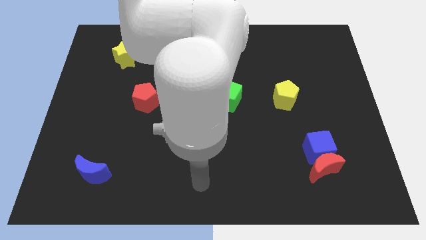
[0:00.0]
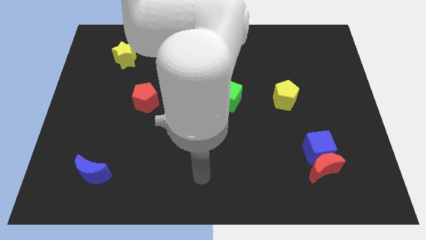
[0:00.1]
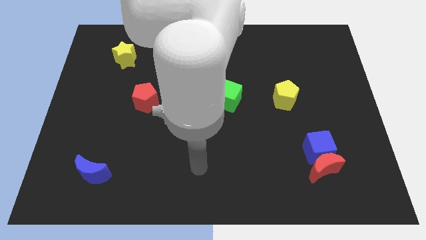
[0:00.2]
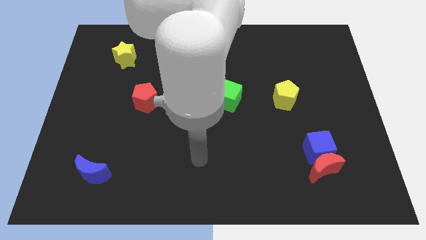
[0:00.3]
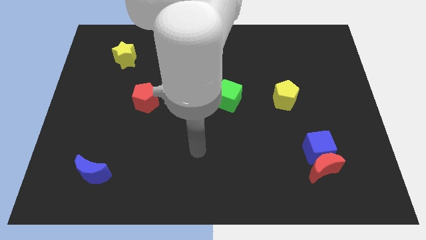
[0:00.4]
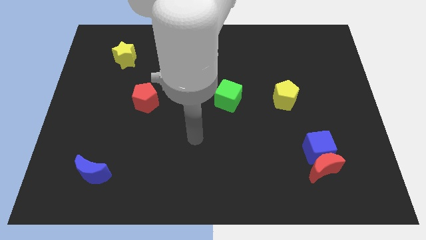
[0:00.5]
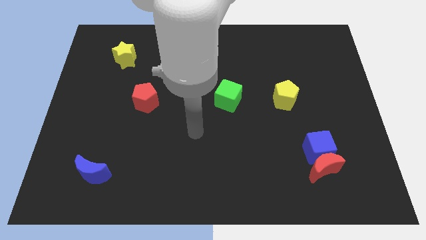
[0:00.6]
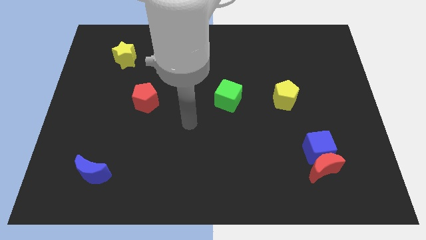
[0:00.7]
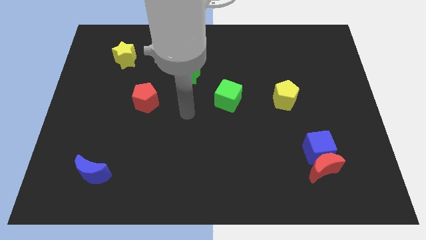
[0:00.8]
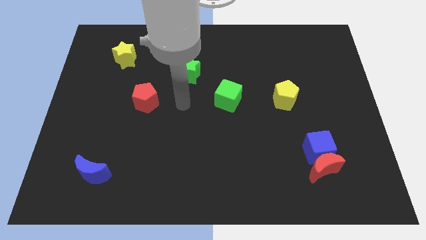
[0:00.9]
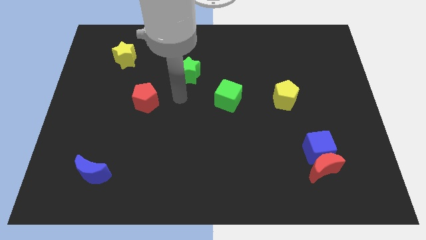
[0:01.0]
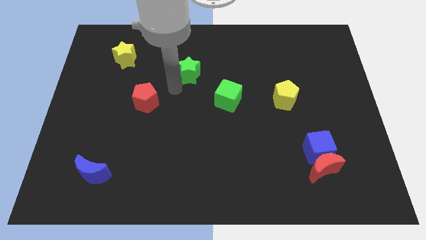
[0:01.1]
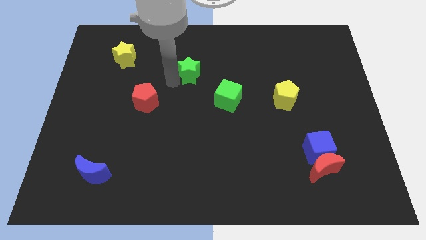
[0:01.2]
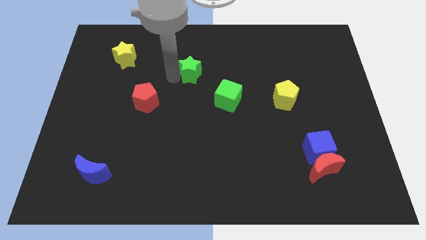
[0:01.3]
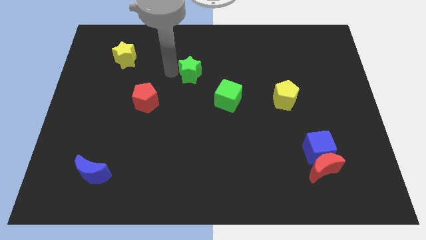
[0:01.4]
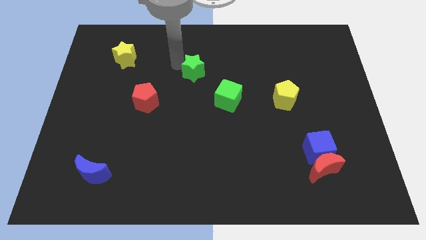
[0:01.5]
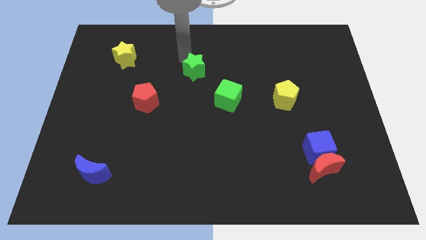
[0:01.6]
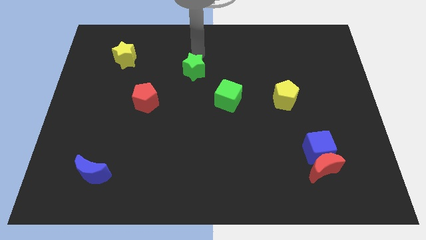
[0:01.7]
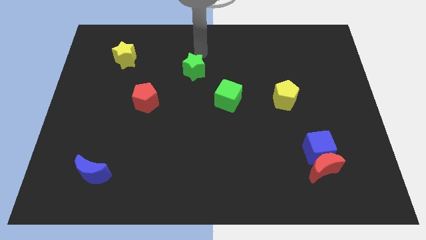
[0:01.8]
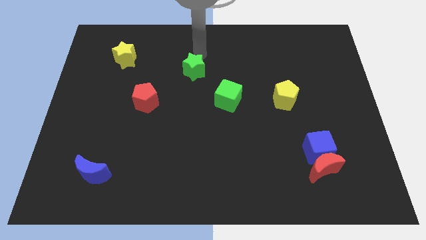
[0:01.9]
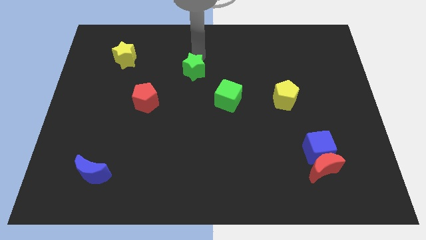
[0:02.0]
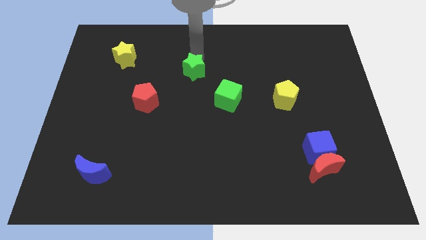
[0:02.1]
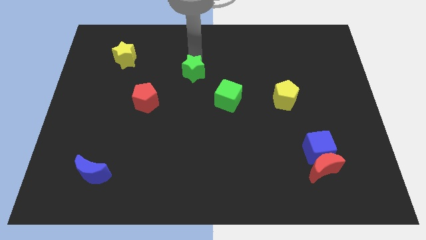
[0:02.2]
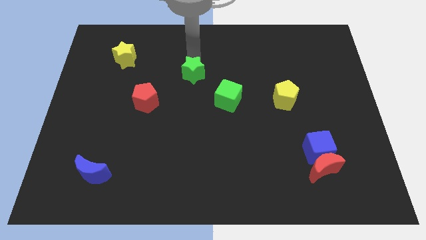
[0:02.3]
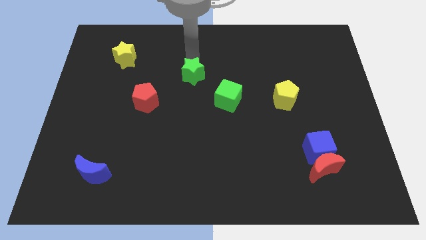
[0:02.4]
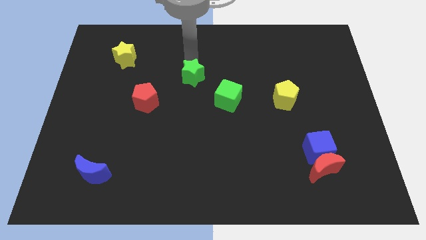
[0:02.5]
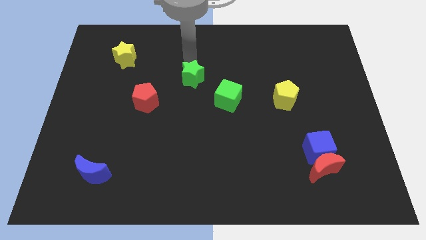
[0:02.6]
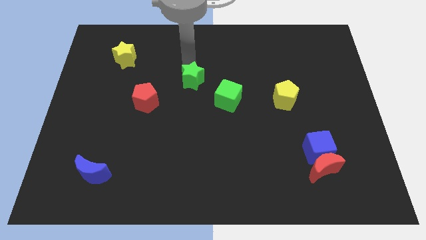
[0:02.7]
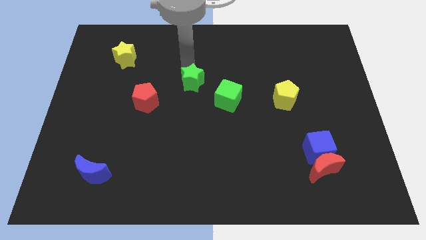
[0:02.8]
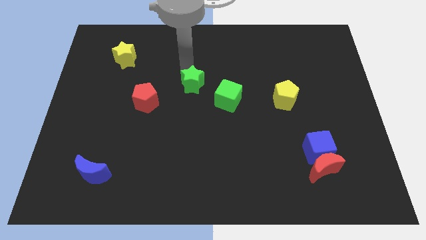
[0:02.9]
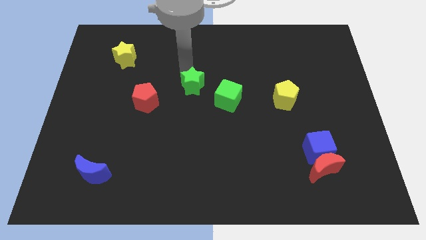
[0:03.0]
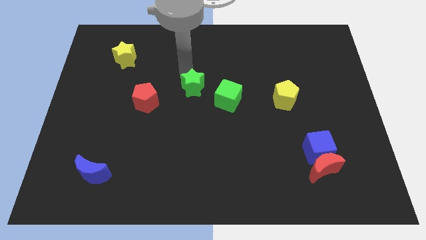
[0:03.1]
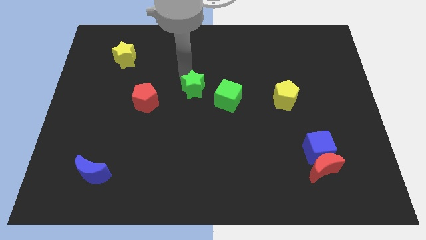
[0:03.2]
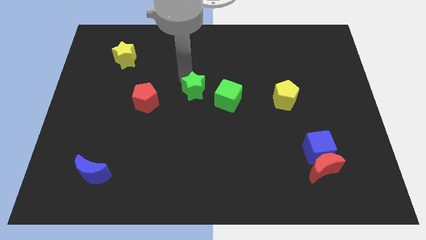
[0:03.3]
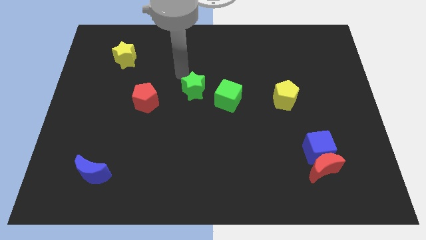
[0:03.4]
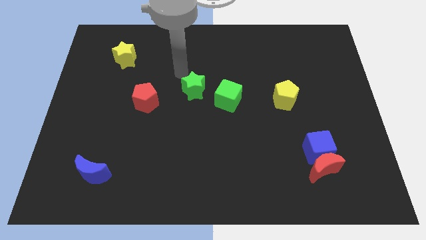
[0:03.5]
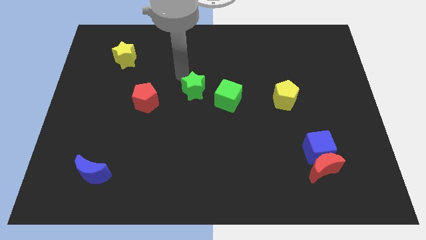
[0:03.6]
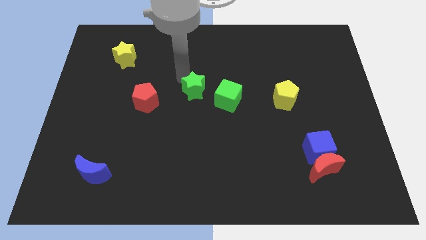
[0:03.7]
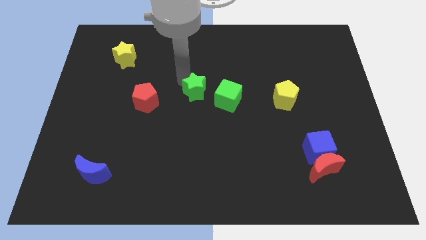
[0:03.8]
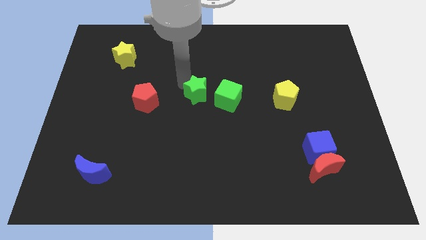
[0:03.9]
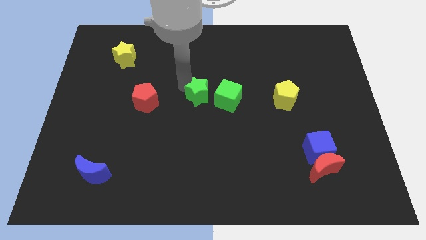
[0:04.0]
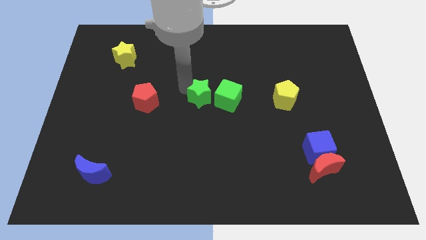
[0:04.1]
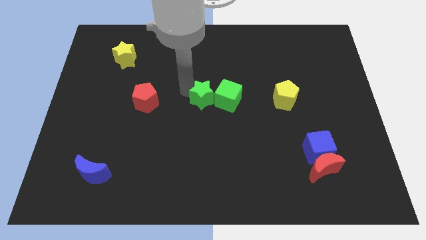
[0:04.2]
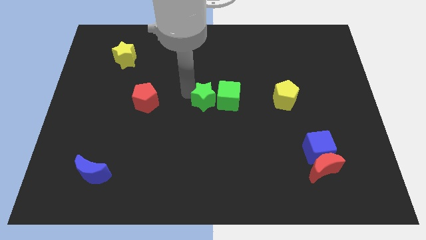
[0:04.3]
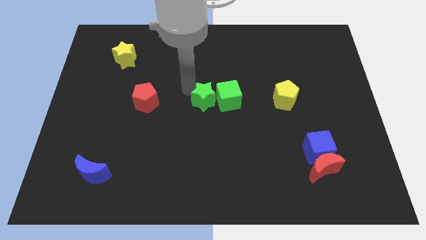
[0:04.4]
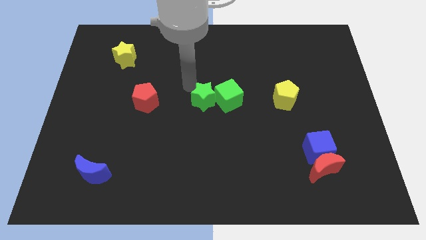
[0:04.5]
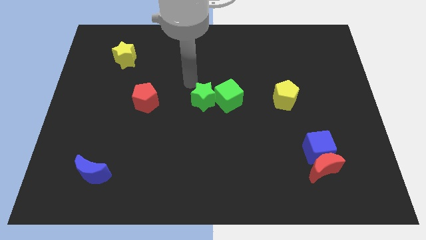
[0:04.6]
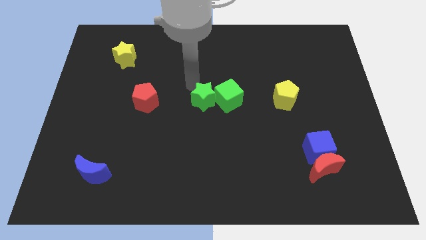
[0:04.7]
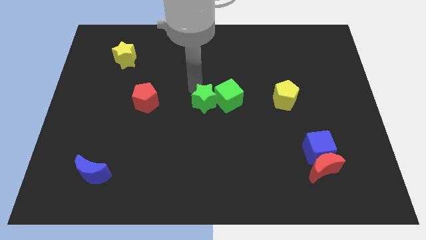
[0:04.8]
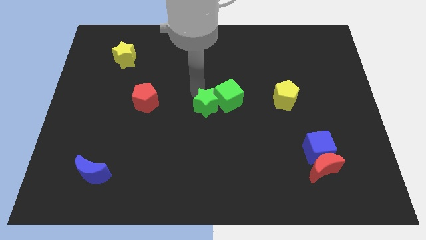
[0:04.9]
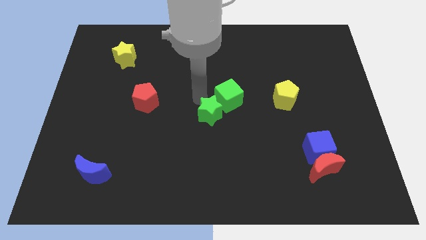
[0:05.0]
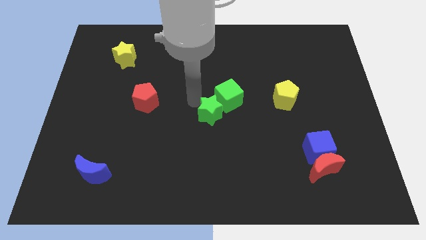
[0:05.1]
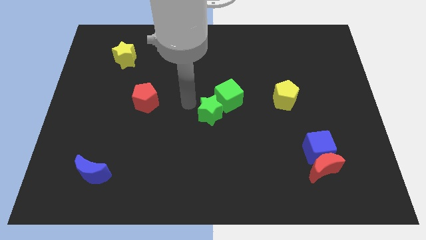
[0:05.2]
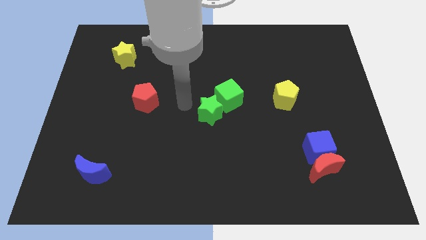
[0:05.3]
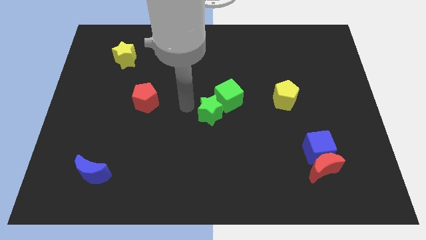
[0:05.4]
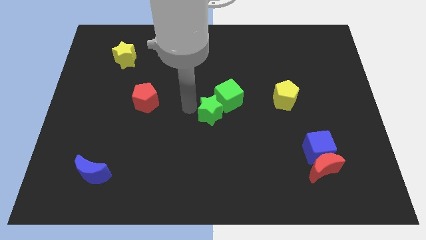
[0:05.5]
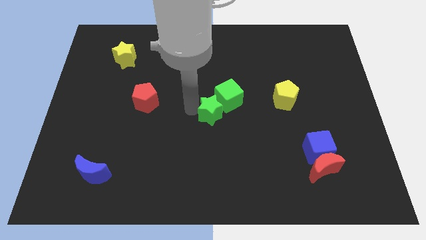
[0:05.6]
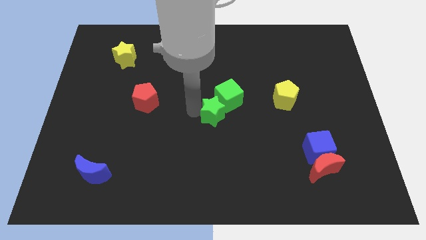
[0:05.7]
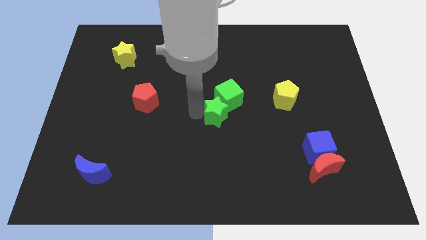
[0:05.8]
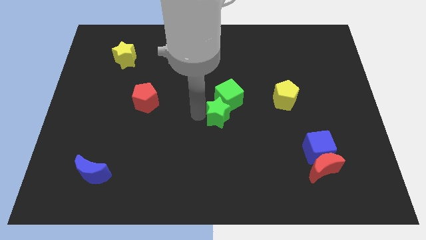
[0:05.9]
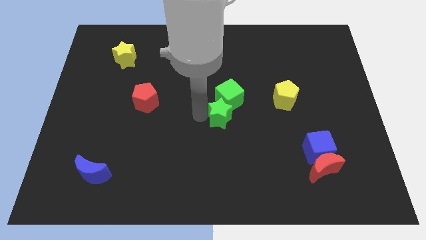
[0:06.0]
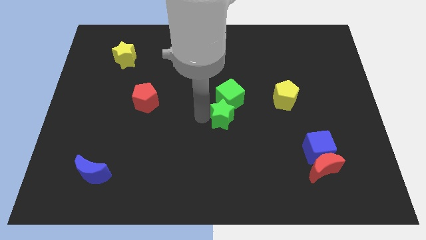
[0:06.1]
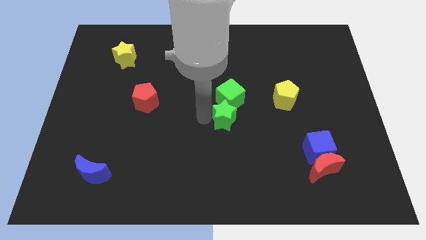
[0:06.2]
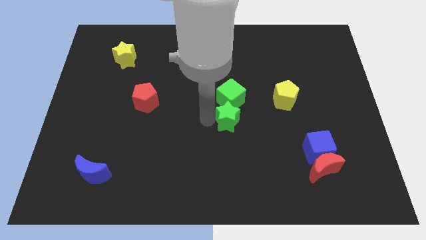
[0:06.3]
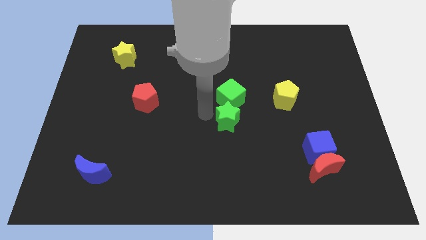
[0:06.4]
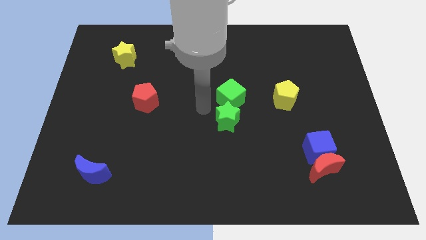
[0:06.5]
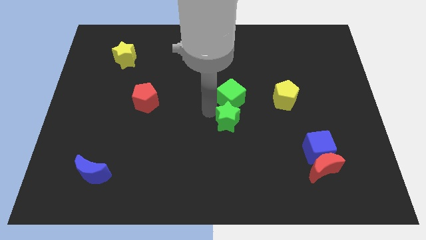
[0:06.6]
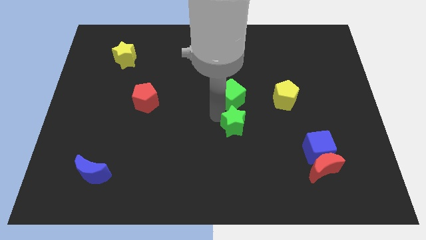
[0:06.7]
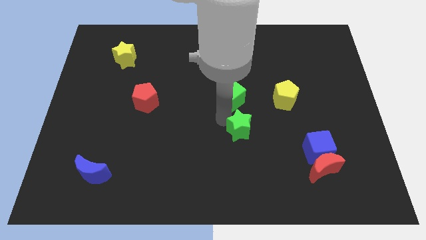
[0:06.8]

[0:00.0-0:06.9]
move the green star diagonally downwards and right

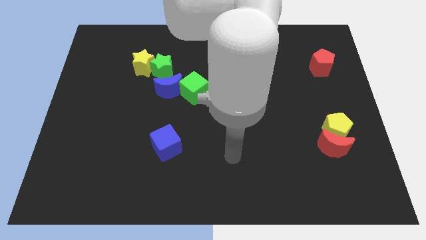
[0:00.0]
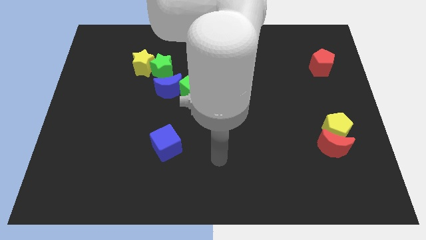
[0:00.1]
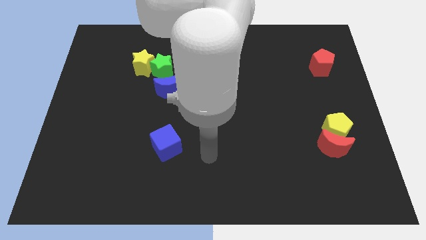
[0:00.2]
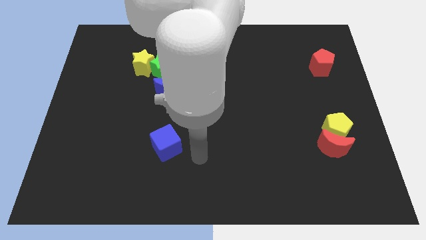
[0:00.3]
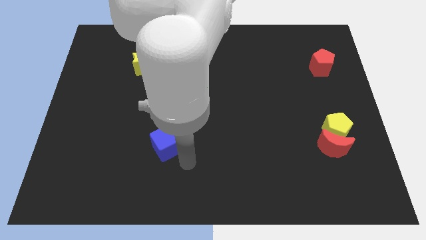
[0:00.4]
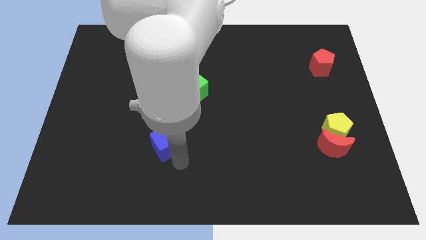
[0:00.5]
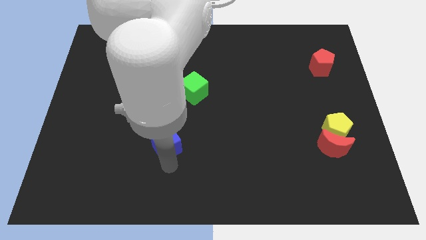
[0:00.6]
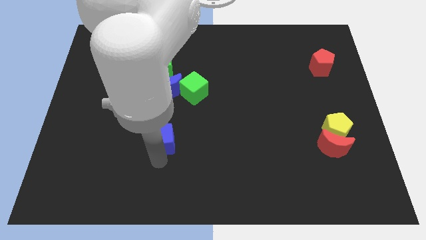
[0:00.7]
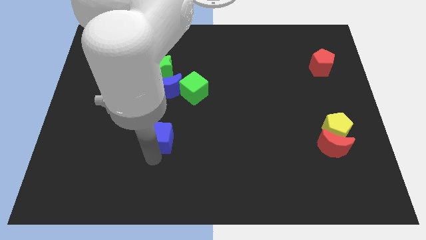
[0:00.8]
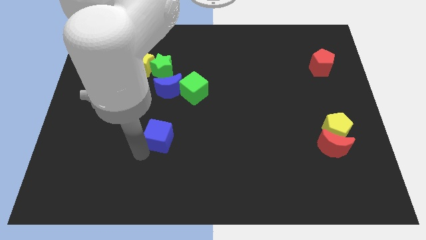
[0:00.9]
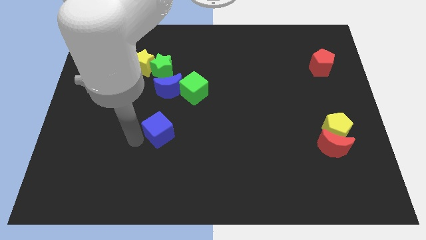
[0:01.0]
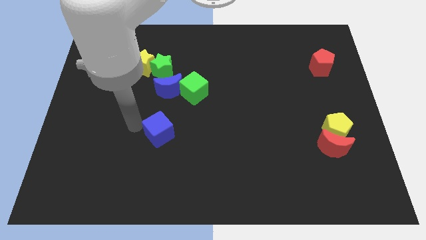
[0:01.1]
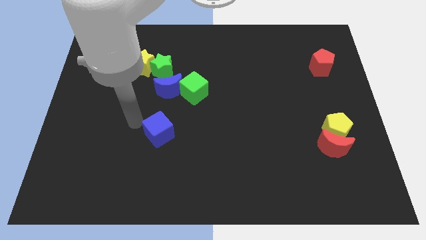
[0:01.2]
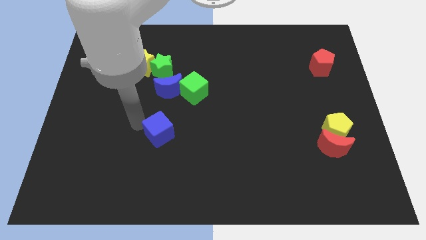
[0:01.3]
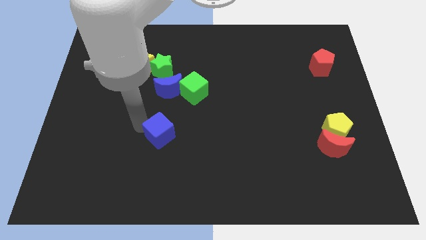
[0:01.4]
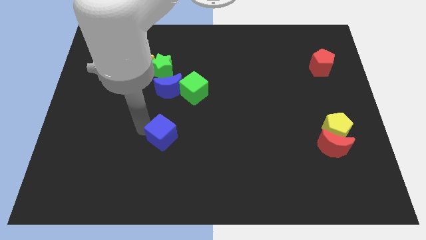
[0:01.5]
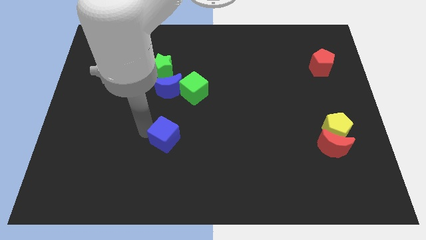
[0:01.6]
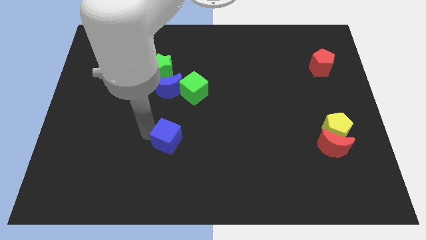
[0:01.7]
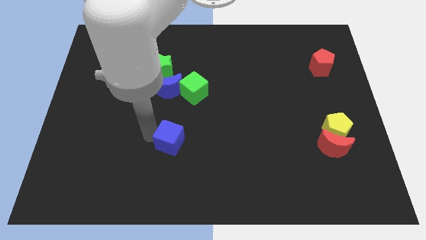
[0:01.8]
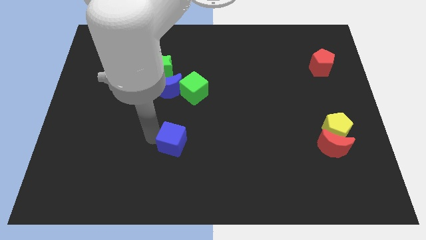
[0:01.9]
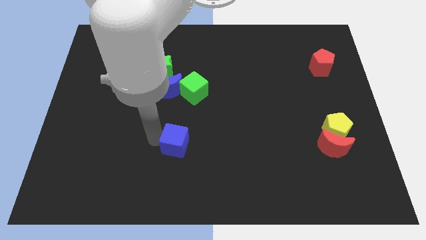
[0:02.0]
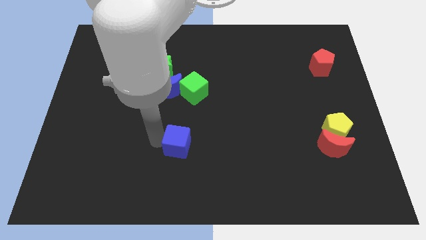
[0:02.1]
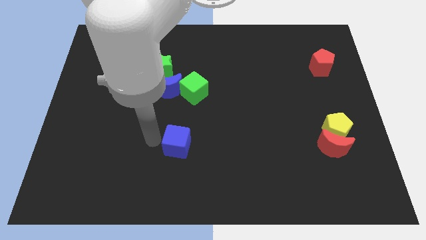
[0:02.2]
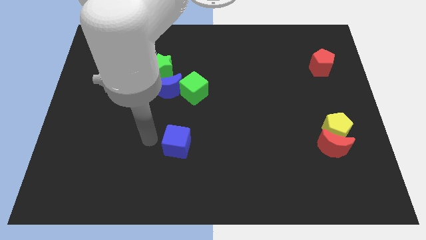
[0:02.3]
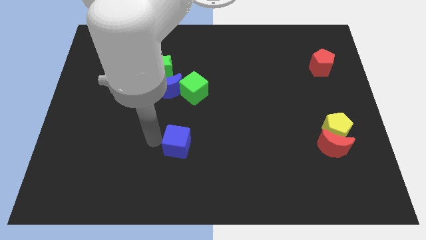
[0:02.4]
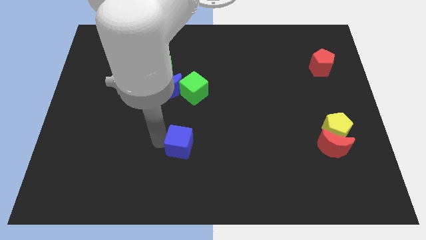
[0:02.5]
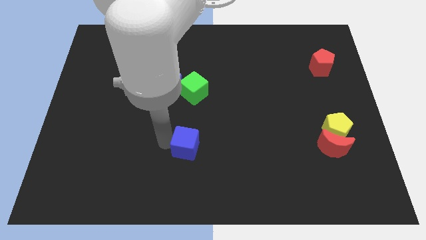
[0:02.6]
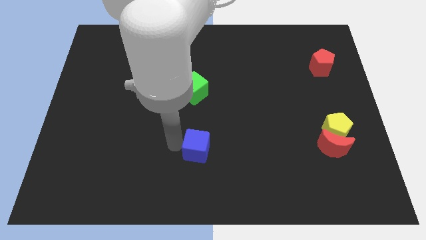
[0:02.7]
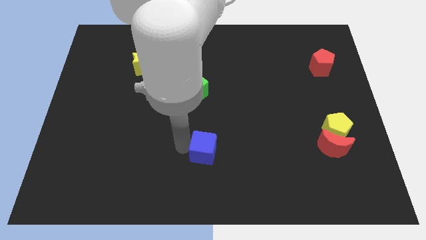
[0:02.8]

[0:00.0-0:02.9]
slightly push the blue cube right
